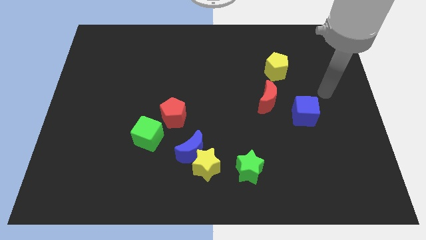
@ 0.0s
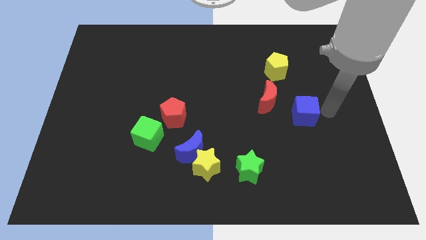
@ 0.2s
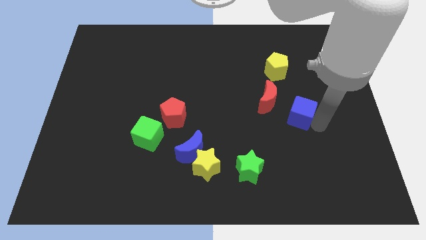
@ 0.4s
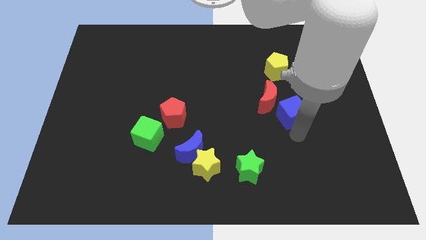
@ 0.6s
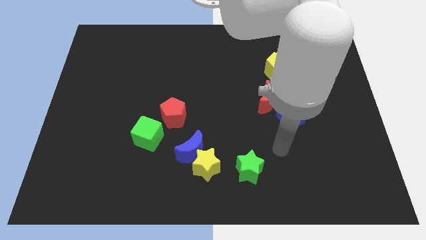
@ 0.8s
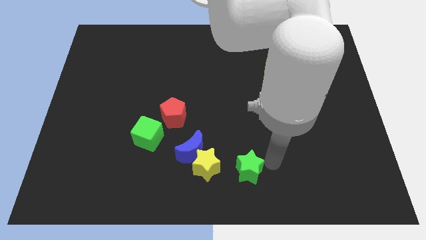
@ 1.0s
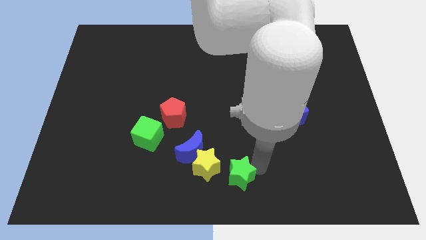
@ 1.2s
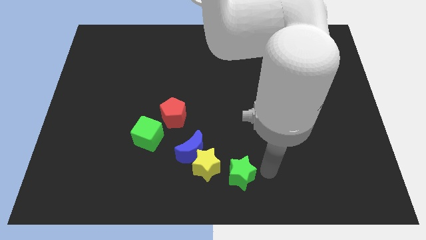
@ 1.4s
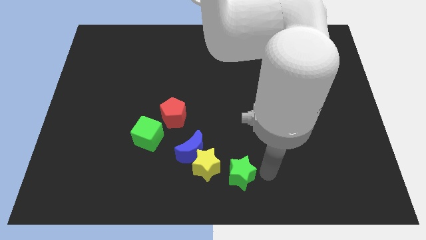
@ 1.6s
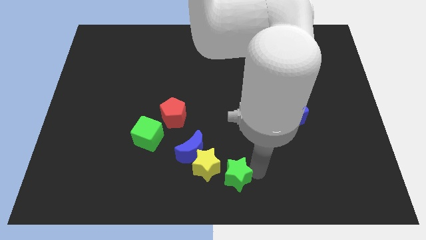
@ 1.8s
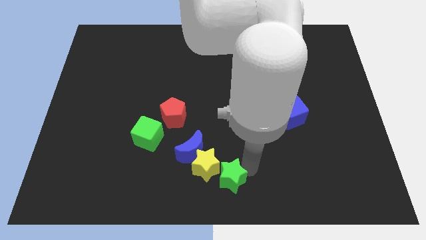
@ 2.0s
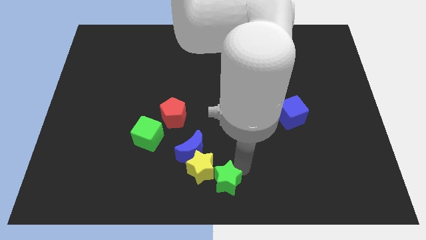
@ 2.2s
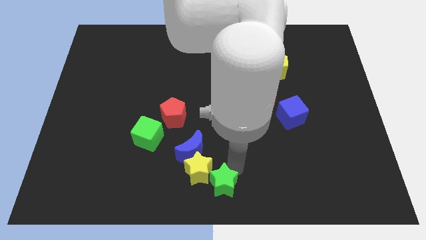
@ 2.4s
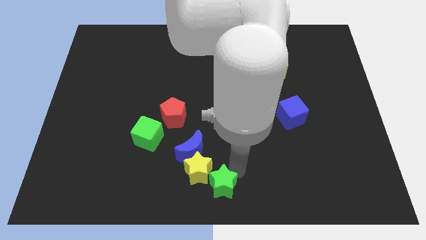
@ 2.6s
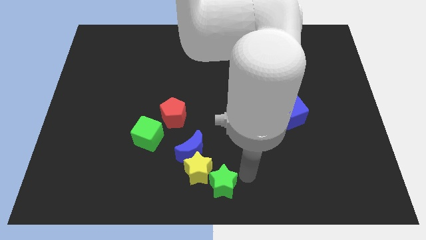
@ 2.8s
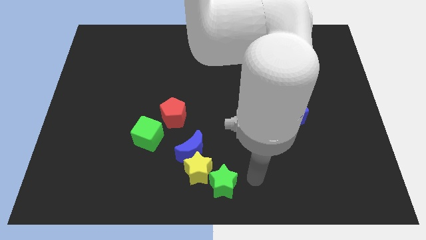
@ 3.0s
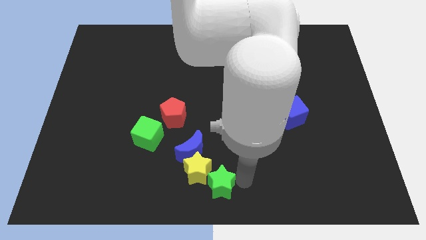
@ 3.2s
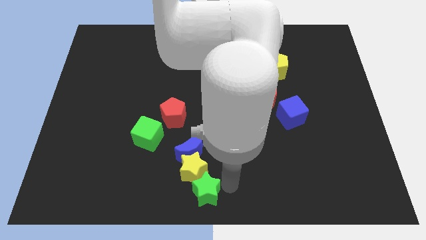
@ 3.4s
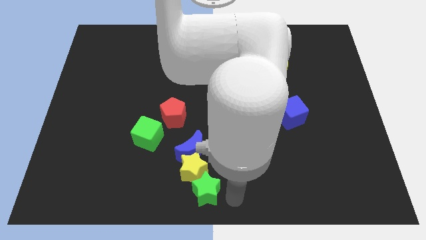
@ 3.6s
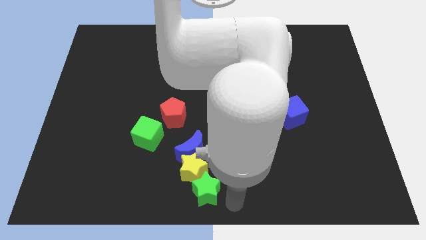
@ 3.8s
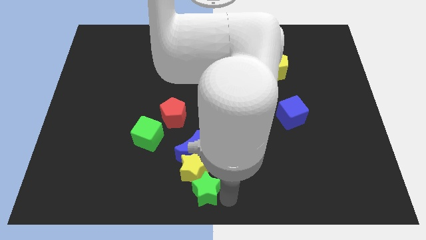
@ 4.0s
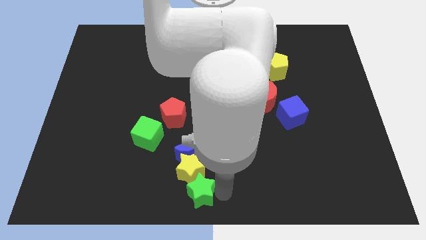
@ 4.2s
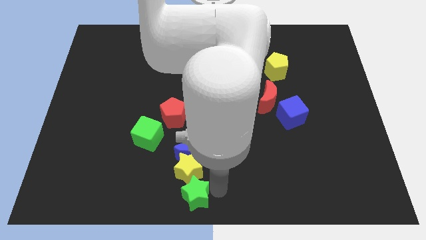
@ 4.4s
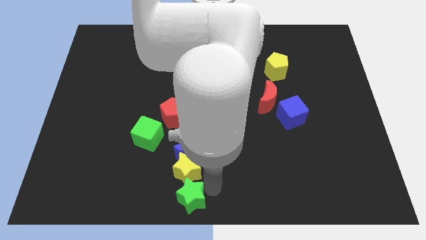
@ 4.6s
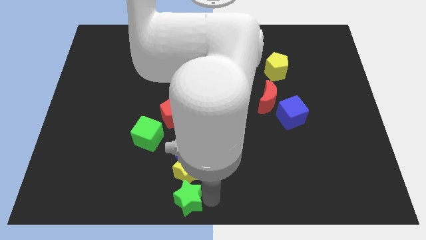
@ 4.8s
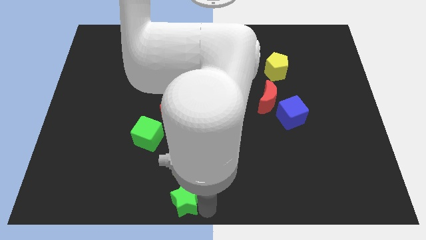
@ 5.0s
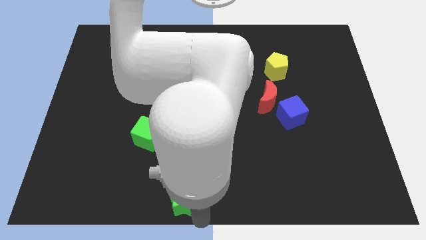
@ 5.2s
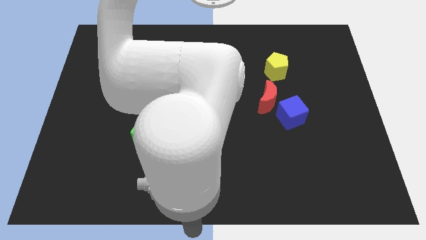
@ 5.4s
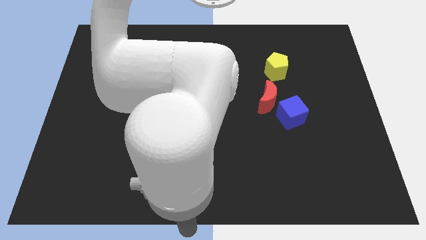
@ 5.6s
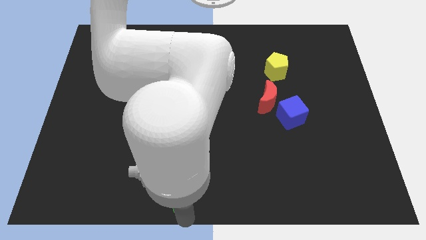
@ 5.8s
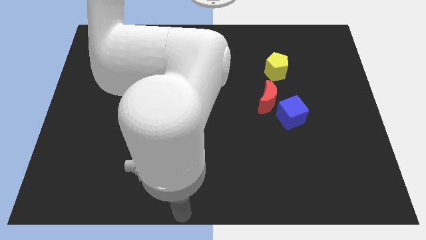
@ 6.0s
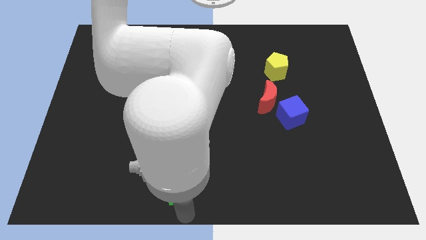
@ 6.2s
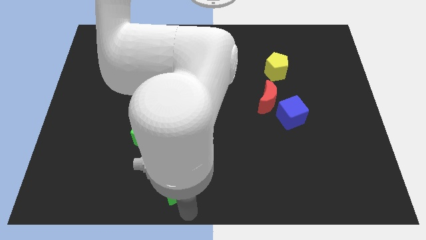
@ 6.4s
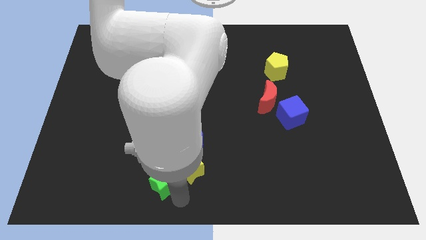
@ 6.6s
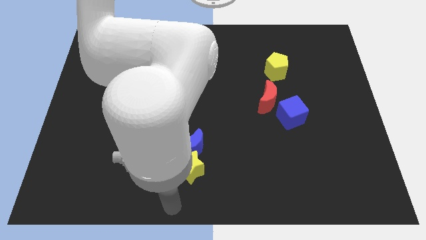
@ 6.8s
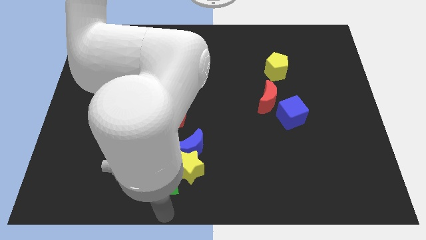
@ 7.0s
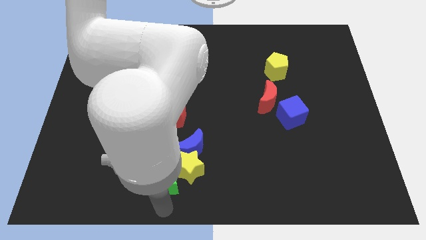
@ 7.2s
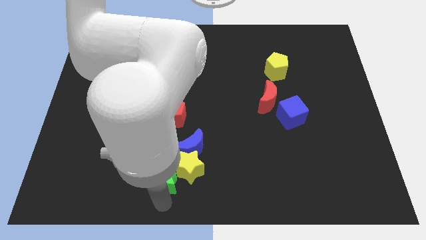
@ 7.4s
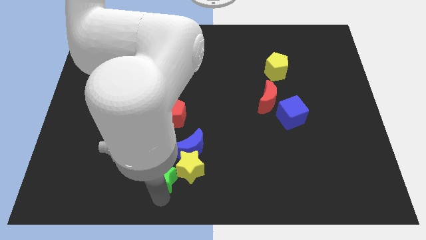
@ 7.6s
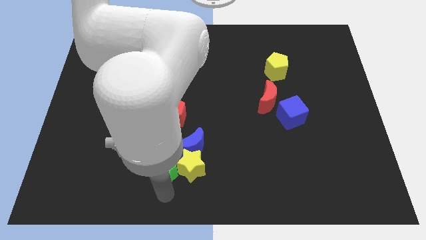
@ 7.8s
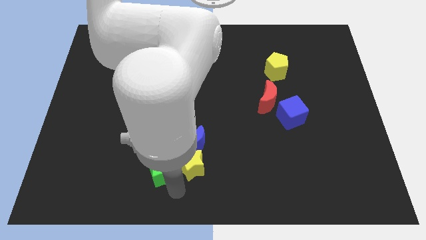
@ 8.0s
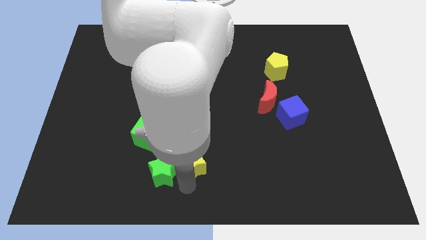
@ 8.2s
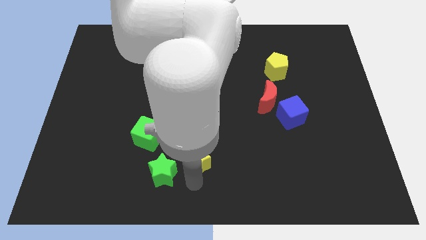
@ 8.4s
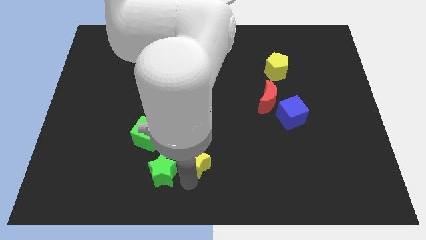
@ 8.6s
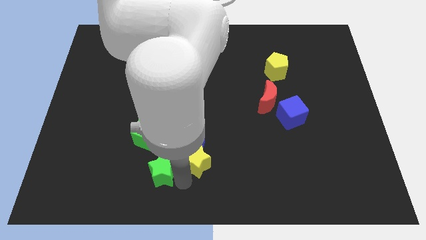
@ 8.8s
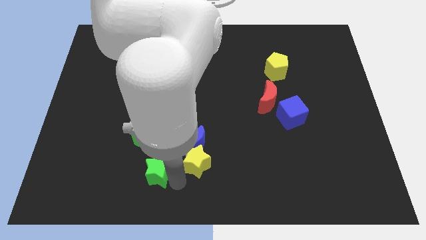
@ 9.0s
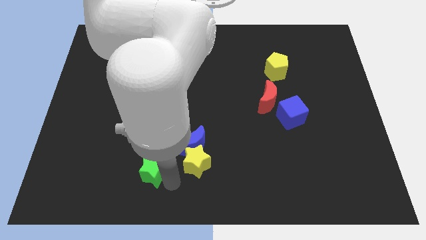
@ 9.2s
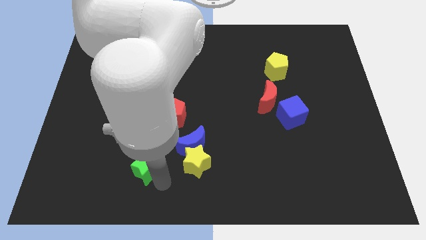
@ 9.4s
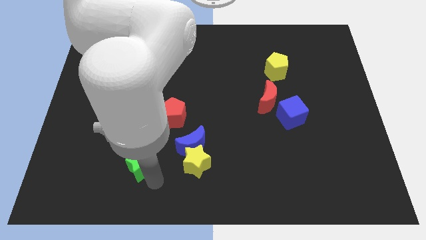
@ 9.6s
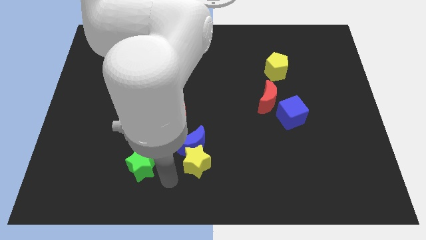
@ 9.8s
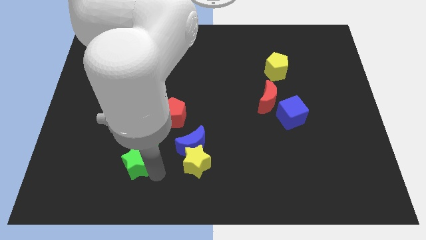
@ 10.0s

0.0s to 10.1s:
slide the green star to the bottom left of the green cube

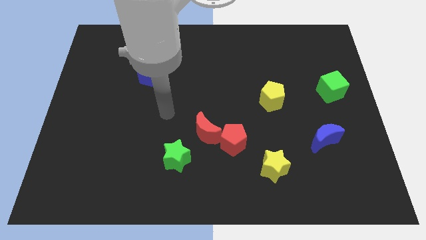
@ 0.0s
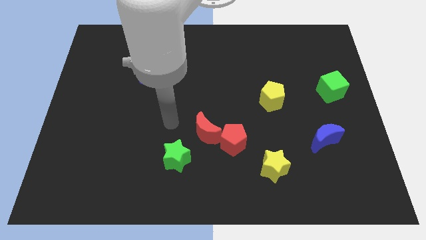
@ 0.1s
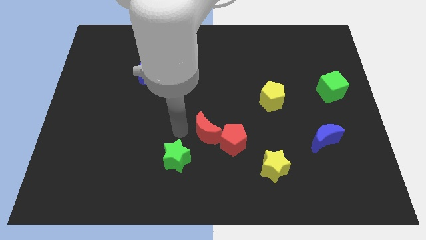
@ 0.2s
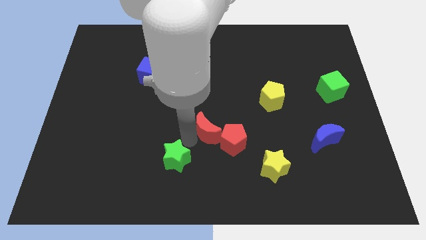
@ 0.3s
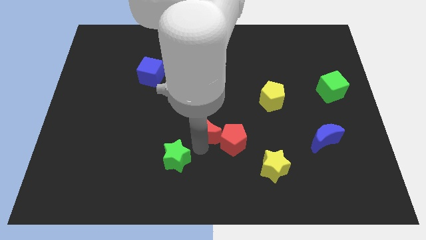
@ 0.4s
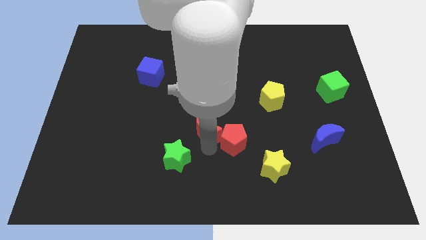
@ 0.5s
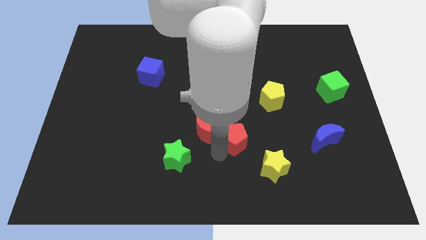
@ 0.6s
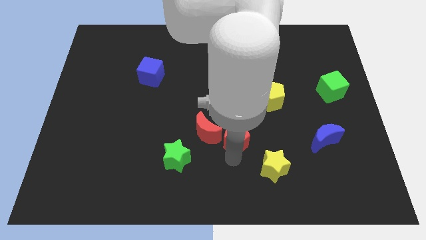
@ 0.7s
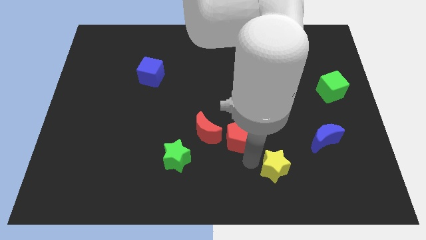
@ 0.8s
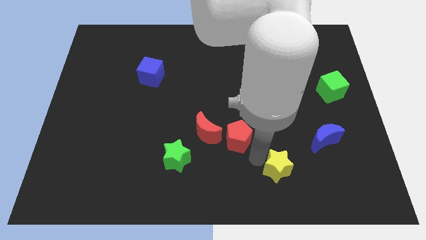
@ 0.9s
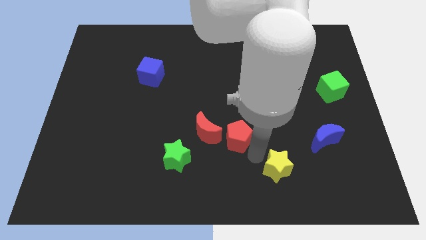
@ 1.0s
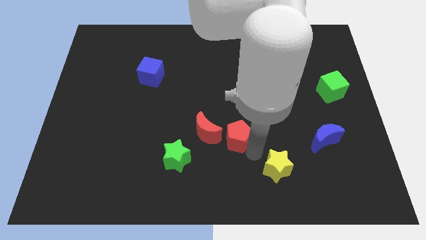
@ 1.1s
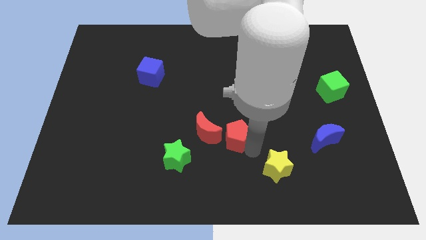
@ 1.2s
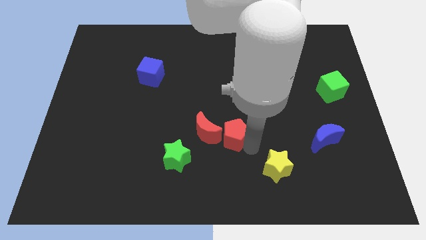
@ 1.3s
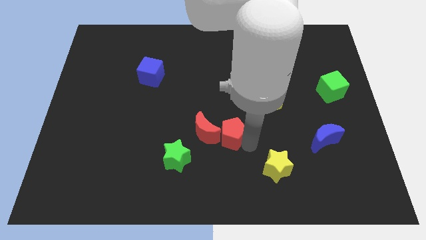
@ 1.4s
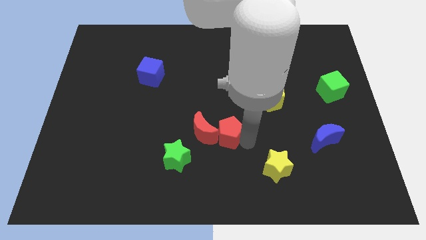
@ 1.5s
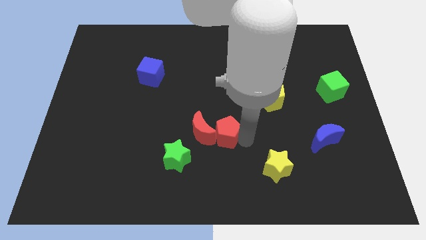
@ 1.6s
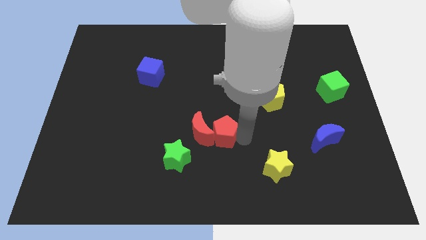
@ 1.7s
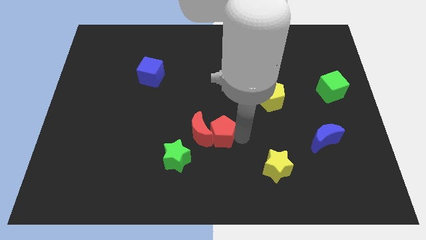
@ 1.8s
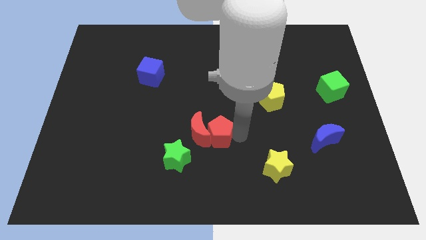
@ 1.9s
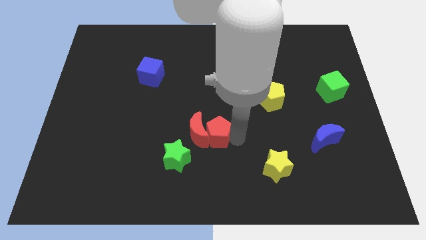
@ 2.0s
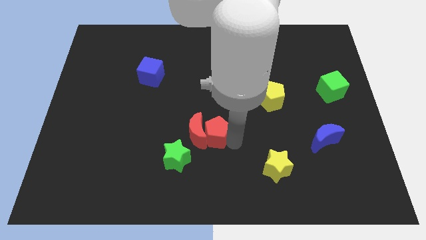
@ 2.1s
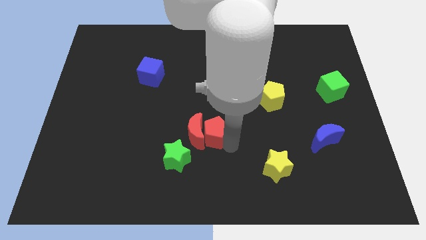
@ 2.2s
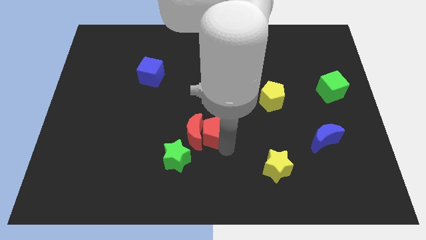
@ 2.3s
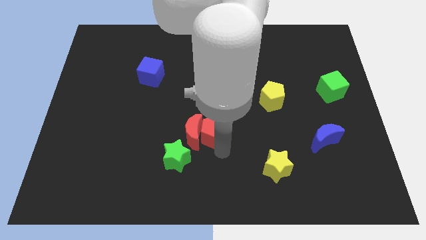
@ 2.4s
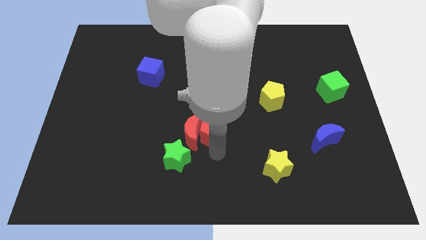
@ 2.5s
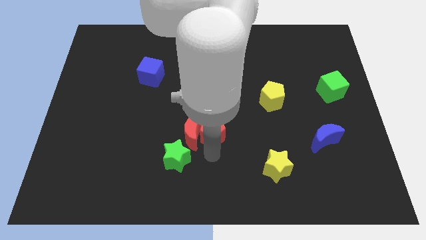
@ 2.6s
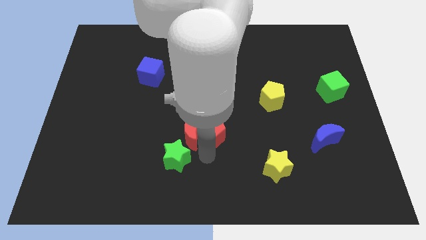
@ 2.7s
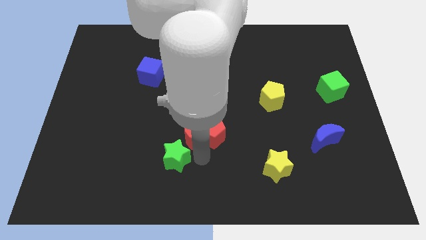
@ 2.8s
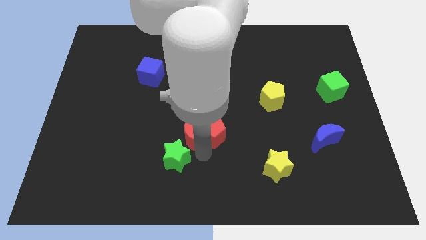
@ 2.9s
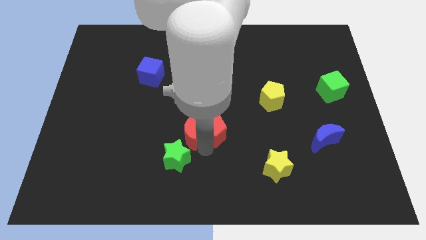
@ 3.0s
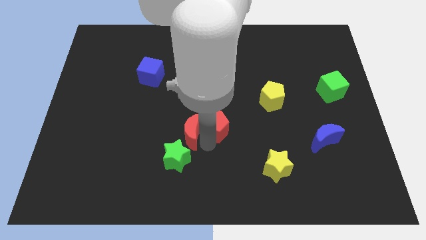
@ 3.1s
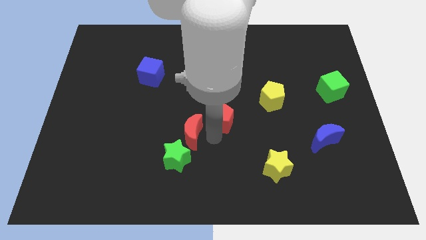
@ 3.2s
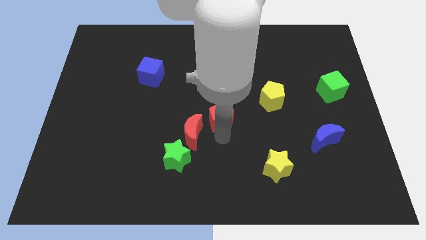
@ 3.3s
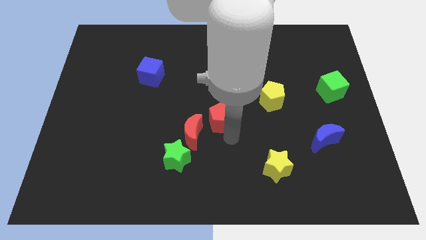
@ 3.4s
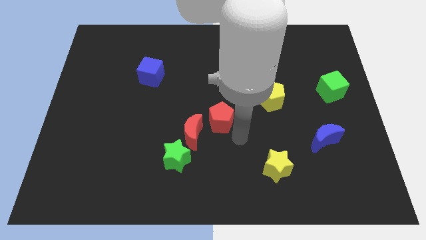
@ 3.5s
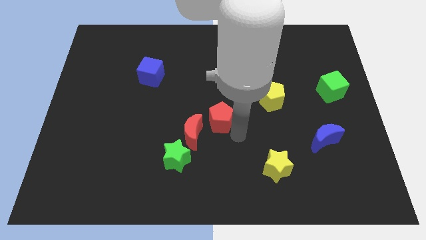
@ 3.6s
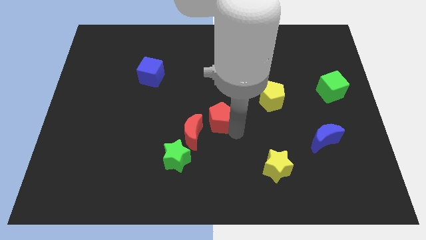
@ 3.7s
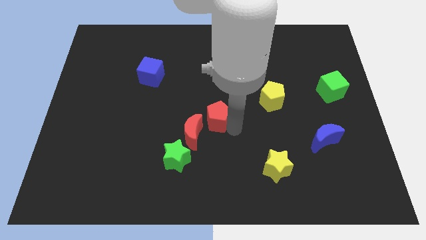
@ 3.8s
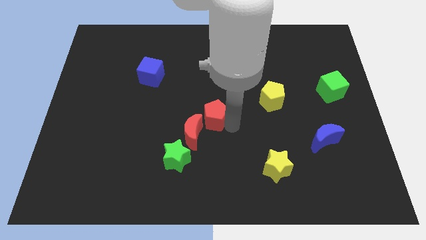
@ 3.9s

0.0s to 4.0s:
put the red pentagon to the top of the red moon
